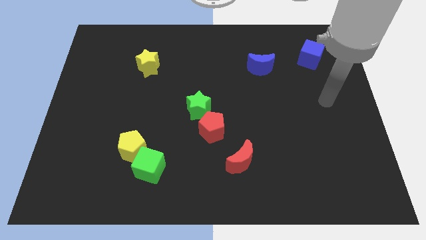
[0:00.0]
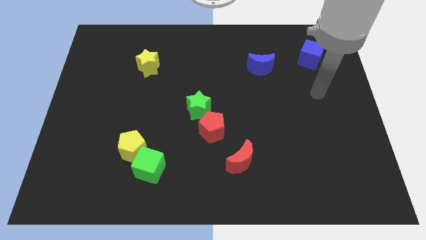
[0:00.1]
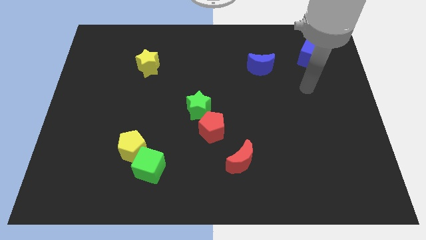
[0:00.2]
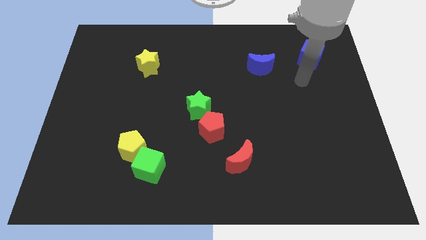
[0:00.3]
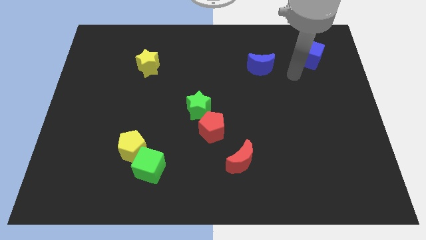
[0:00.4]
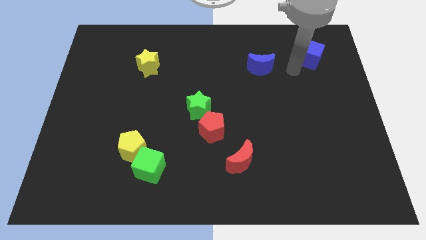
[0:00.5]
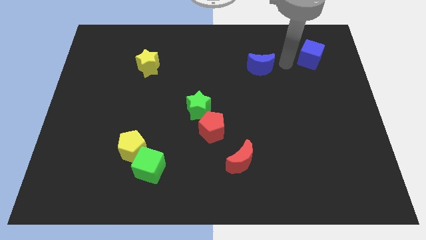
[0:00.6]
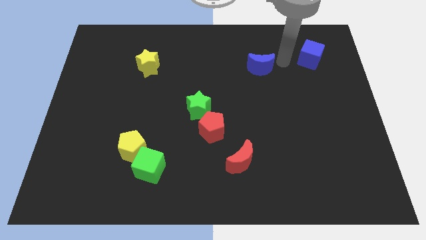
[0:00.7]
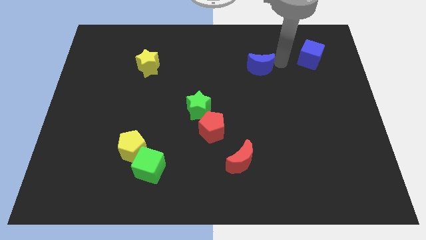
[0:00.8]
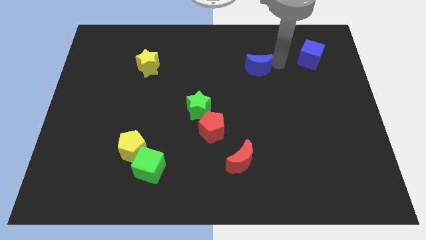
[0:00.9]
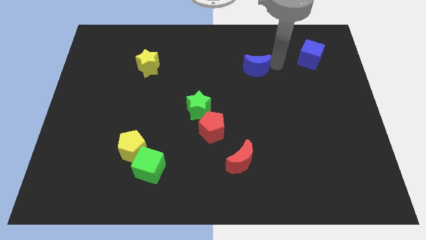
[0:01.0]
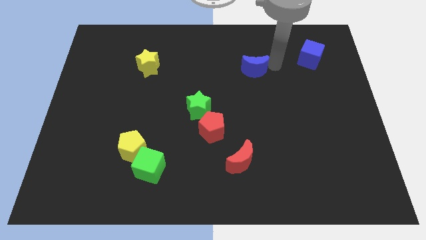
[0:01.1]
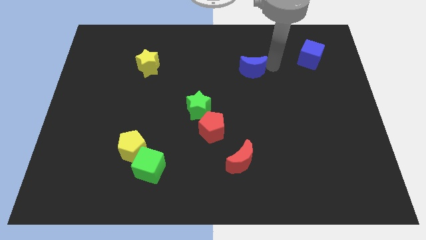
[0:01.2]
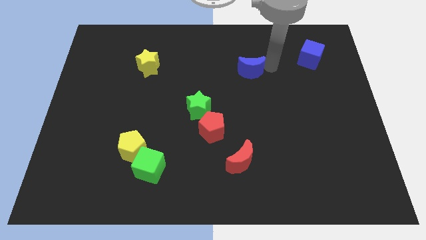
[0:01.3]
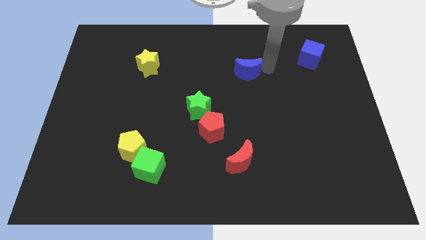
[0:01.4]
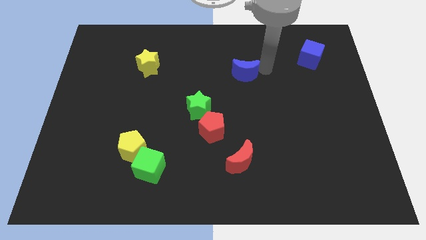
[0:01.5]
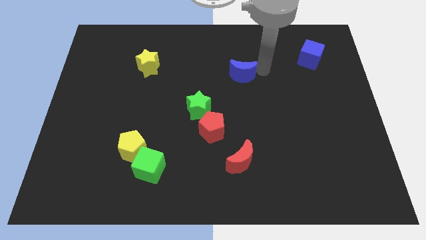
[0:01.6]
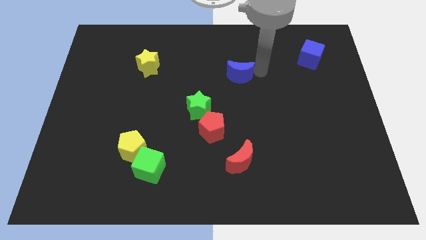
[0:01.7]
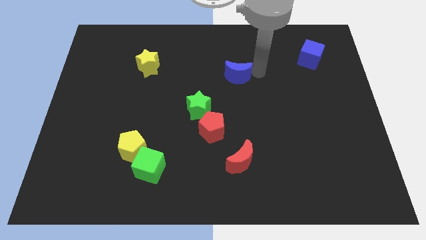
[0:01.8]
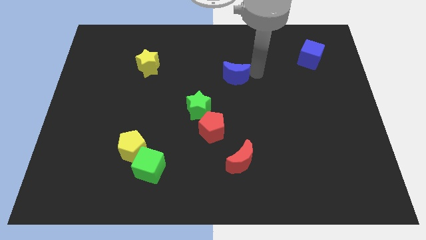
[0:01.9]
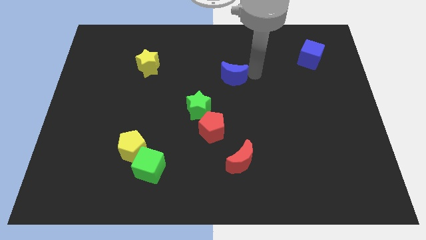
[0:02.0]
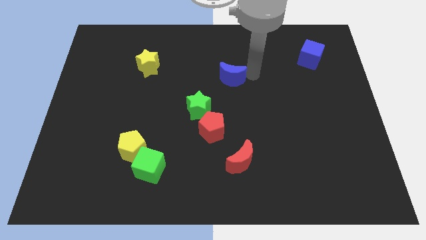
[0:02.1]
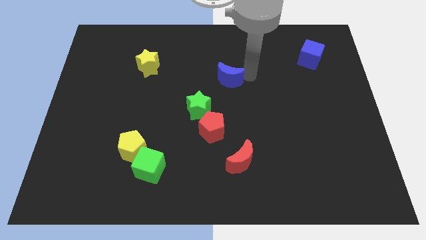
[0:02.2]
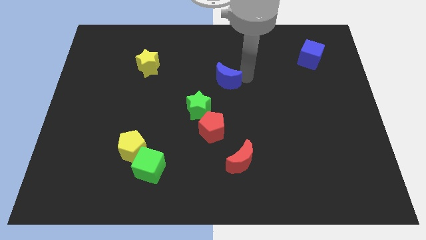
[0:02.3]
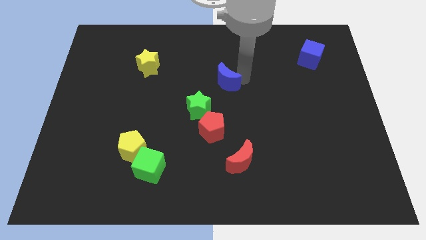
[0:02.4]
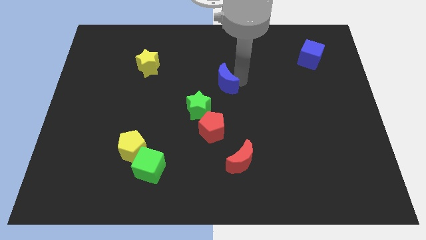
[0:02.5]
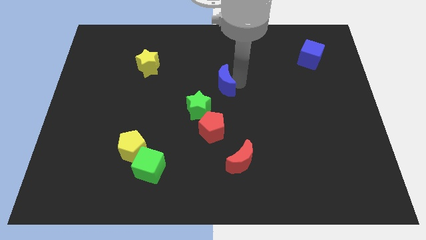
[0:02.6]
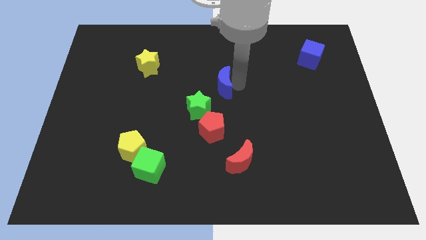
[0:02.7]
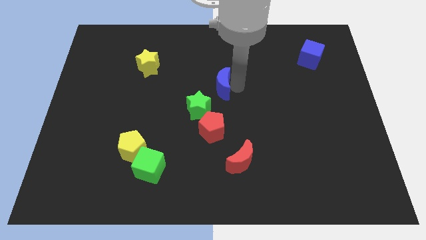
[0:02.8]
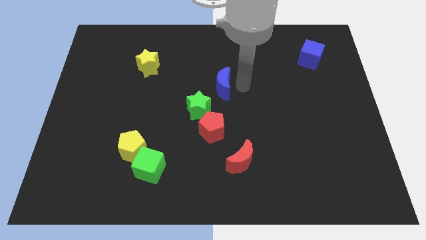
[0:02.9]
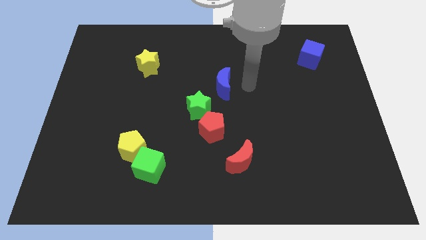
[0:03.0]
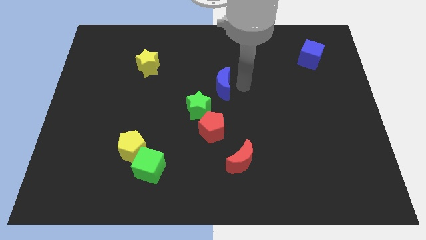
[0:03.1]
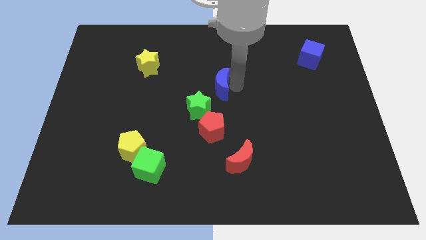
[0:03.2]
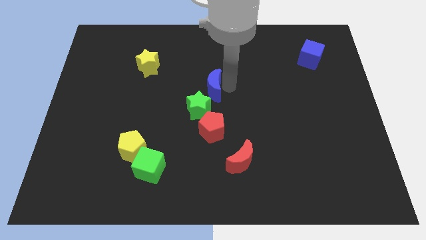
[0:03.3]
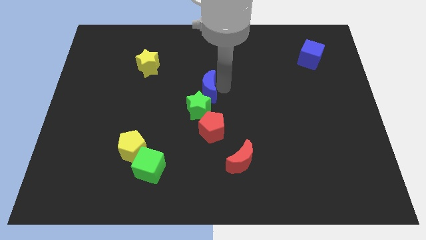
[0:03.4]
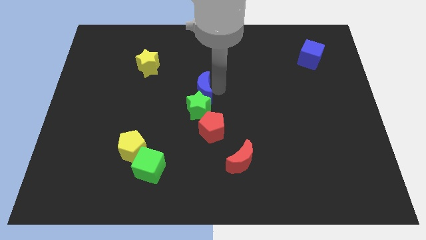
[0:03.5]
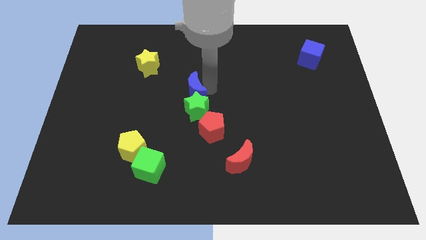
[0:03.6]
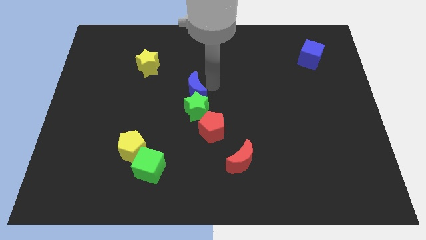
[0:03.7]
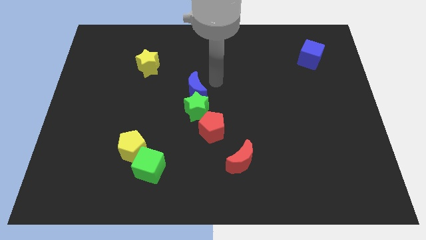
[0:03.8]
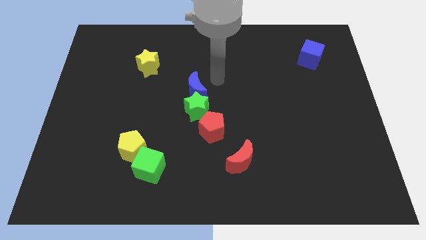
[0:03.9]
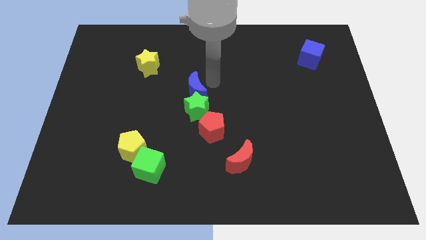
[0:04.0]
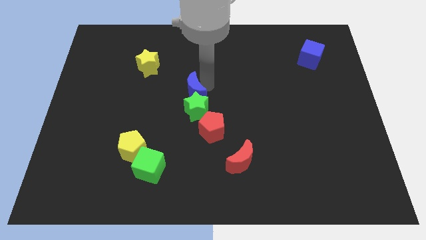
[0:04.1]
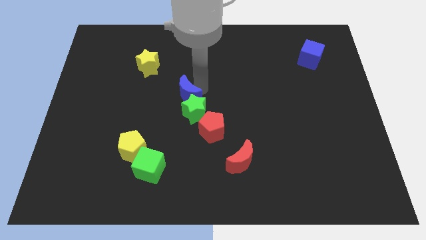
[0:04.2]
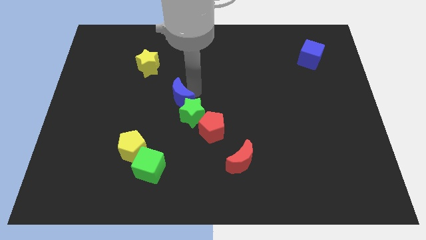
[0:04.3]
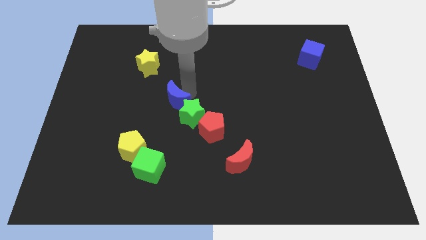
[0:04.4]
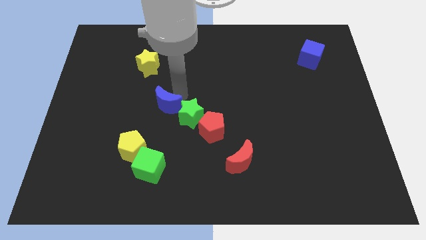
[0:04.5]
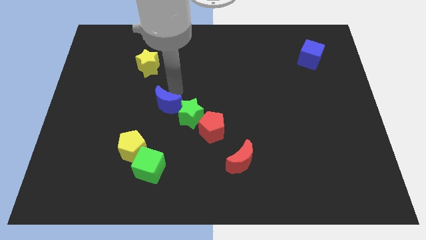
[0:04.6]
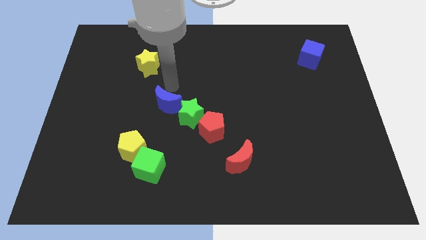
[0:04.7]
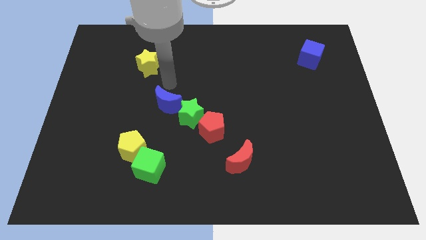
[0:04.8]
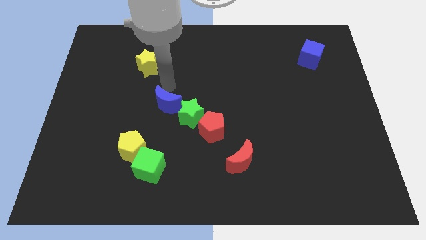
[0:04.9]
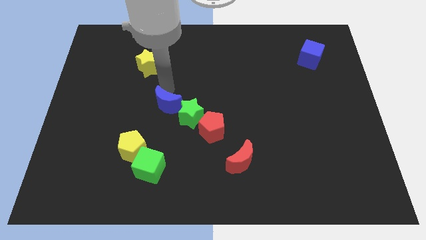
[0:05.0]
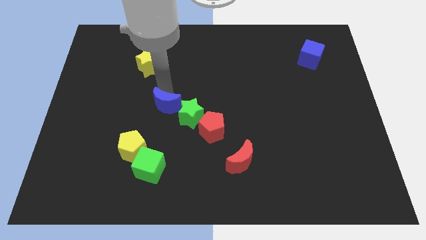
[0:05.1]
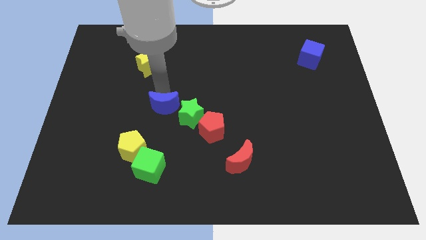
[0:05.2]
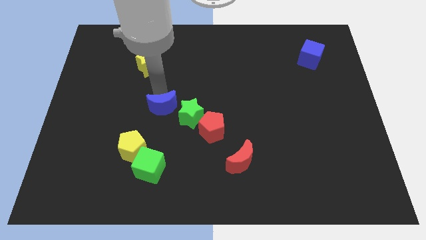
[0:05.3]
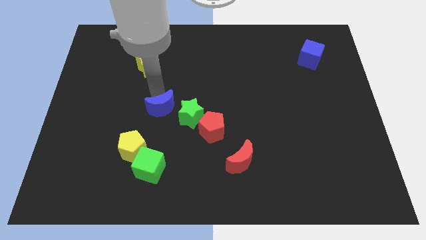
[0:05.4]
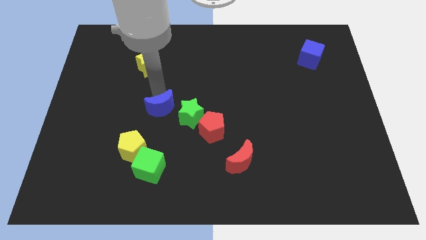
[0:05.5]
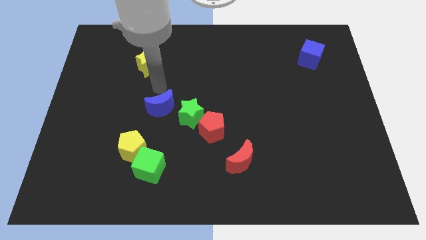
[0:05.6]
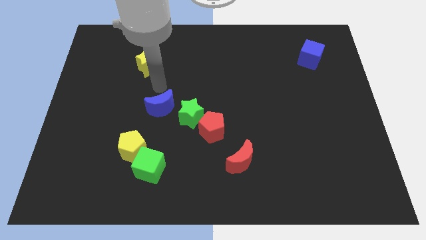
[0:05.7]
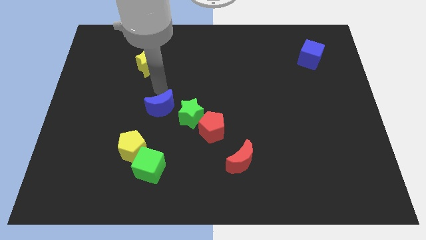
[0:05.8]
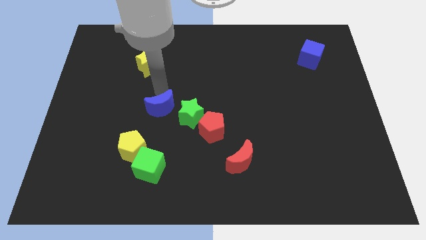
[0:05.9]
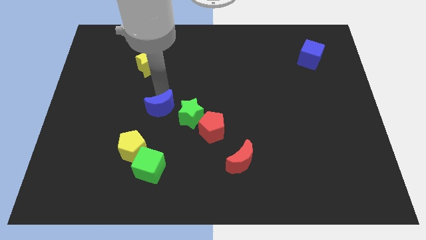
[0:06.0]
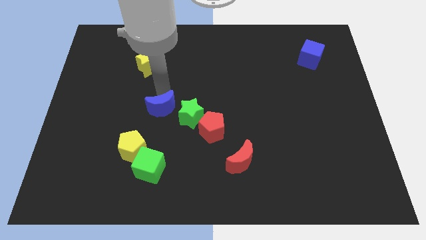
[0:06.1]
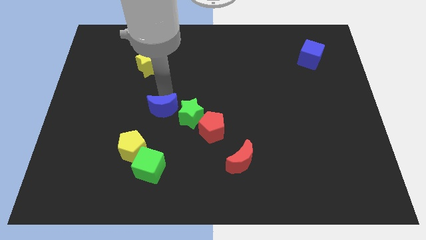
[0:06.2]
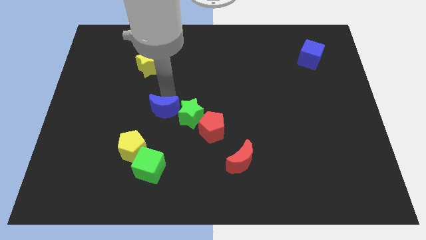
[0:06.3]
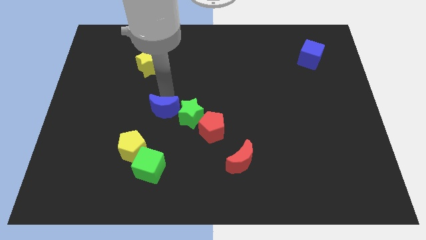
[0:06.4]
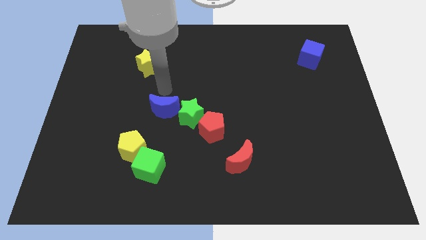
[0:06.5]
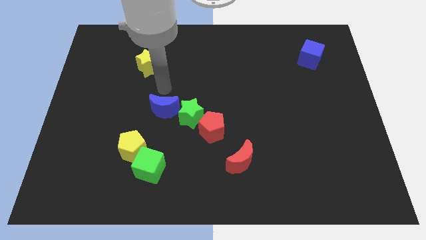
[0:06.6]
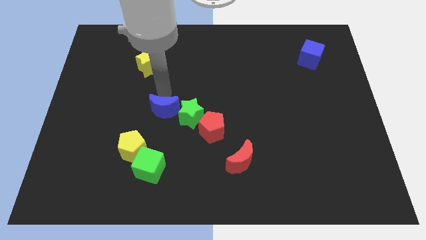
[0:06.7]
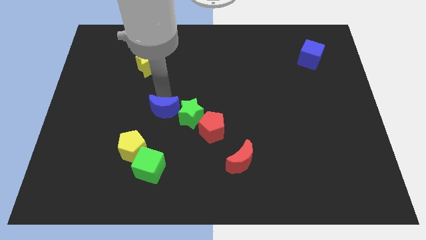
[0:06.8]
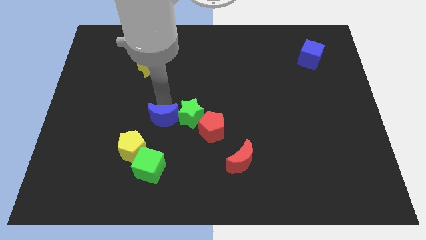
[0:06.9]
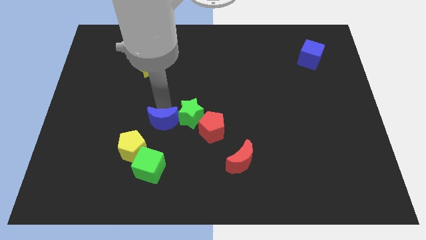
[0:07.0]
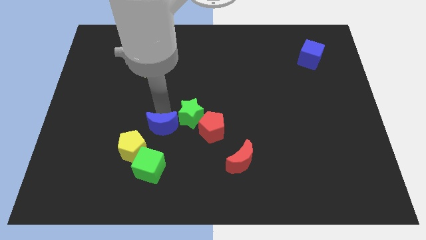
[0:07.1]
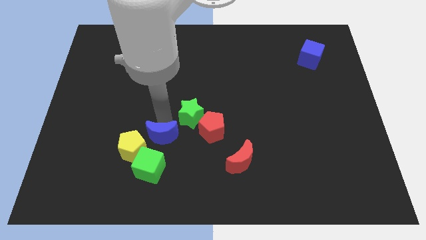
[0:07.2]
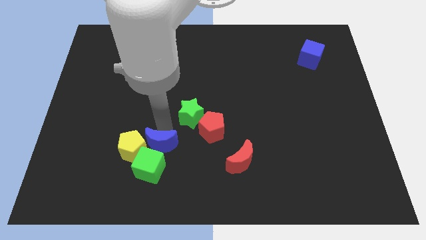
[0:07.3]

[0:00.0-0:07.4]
move the blue moon close to the green cube
